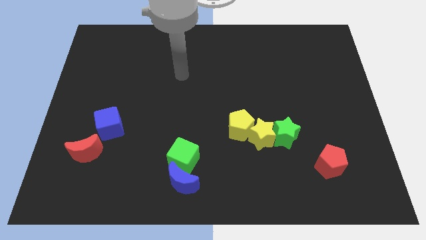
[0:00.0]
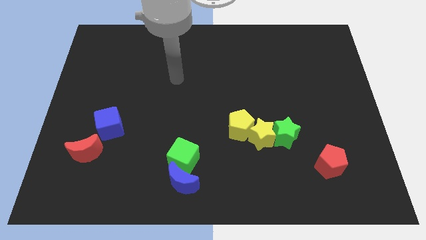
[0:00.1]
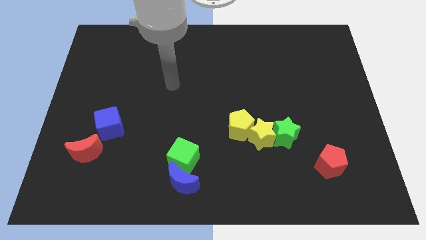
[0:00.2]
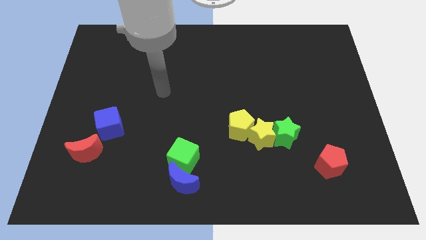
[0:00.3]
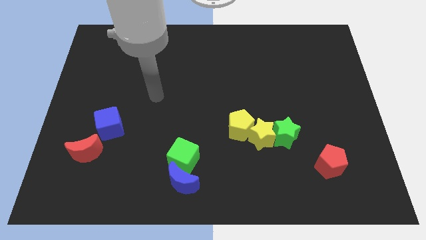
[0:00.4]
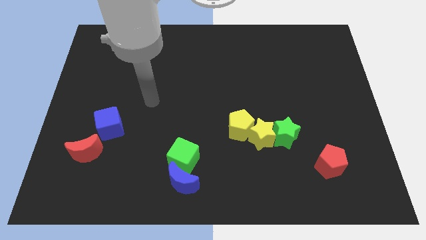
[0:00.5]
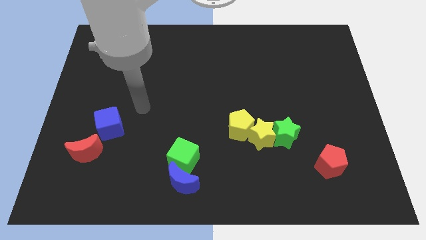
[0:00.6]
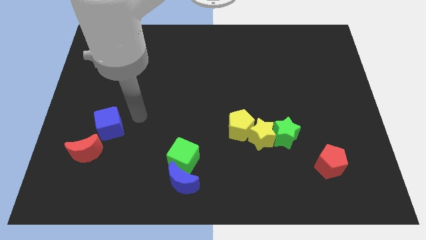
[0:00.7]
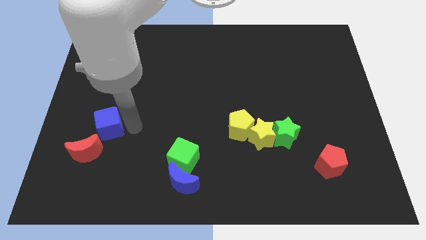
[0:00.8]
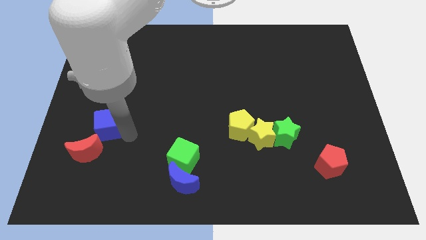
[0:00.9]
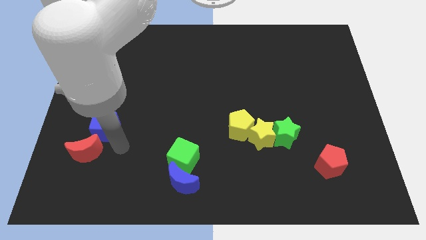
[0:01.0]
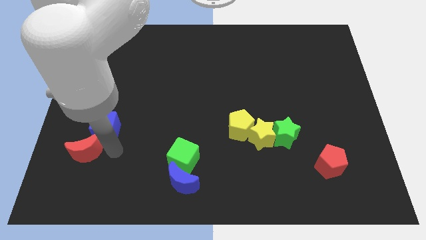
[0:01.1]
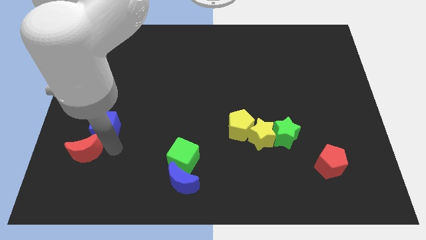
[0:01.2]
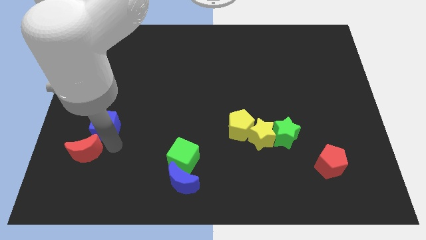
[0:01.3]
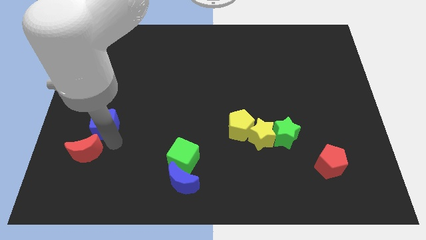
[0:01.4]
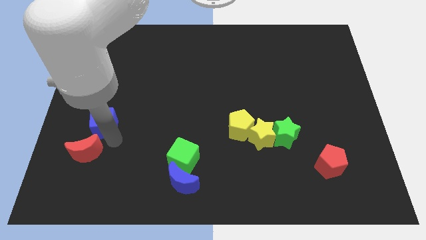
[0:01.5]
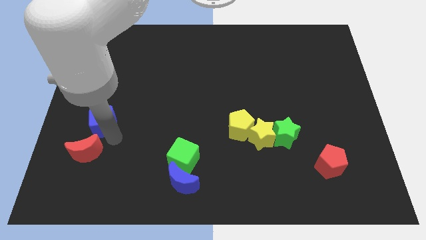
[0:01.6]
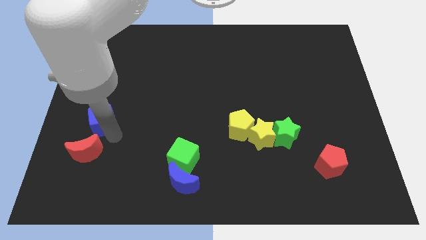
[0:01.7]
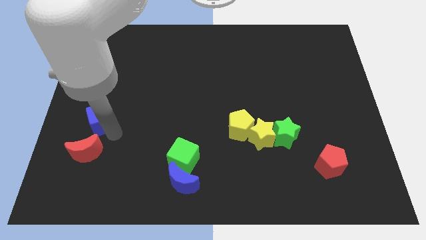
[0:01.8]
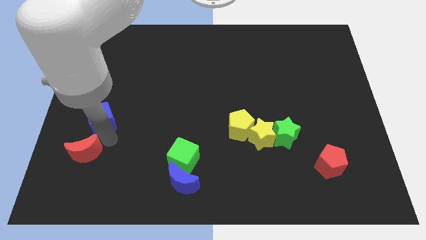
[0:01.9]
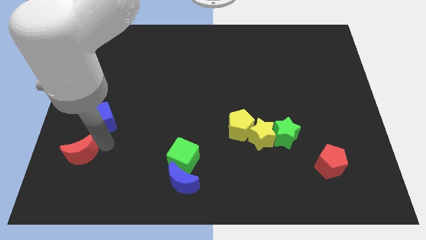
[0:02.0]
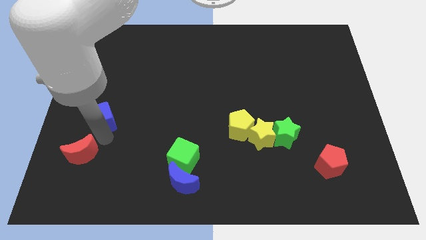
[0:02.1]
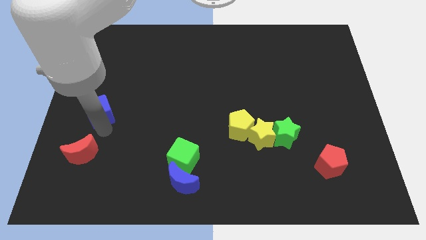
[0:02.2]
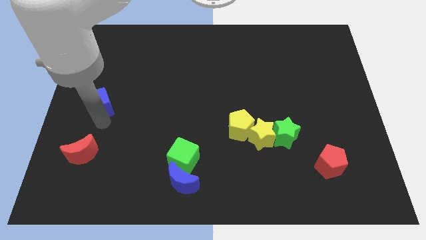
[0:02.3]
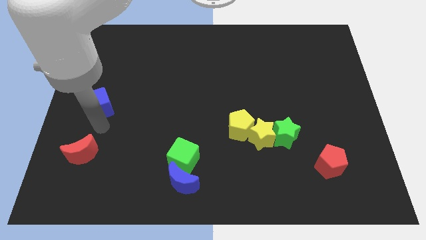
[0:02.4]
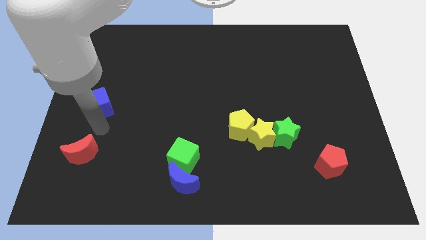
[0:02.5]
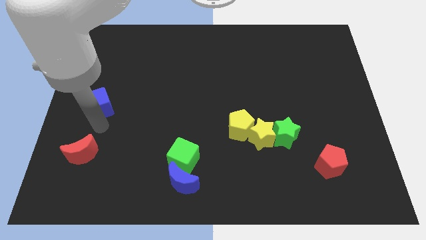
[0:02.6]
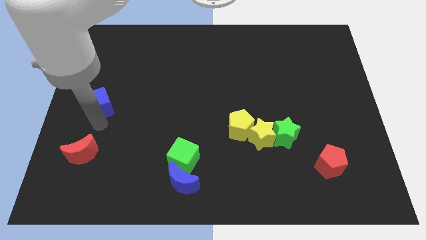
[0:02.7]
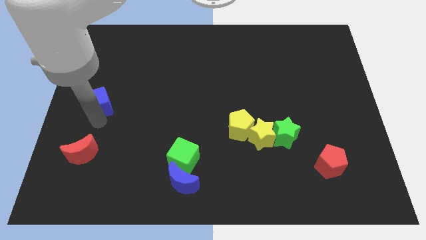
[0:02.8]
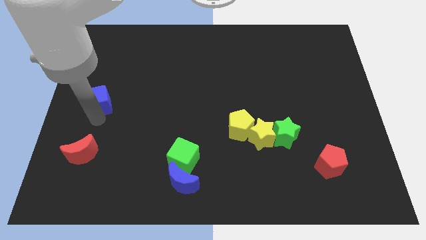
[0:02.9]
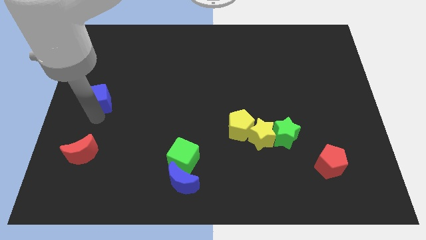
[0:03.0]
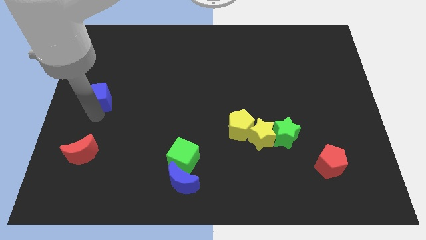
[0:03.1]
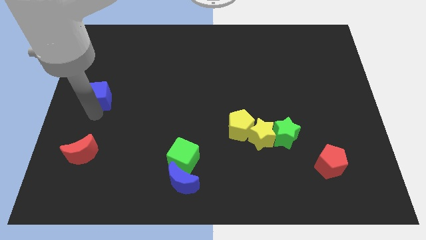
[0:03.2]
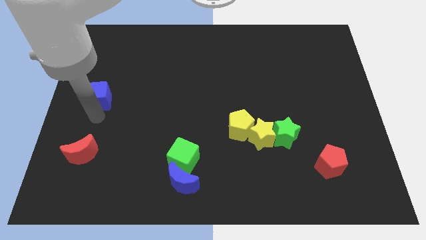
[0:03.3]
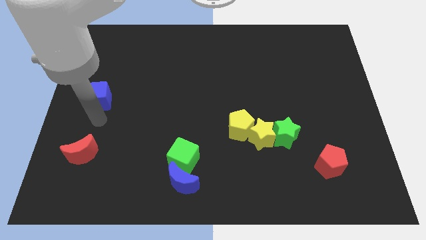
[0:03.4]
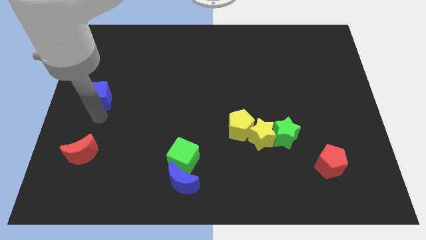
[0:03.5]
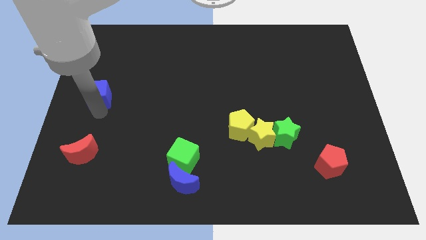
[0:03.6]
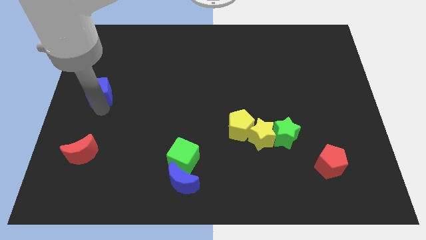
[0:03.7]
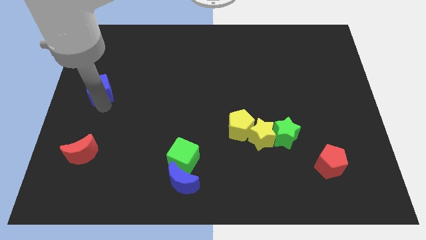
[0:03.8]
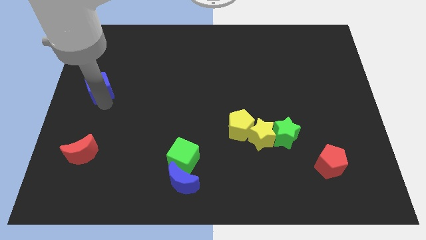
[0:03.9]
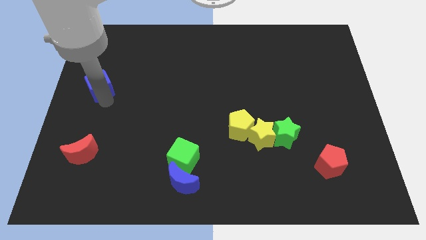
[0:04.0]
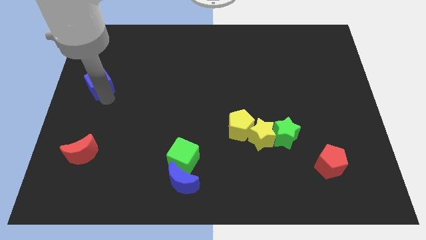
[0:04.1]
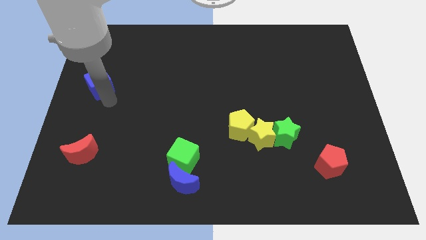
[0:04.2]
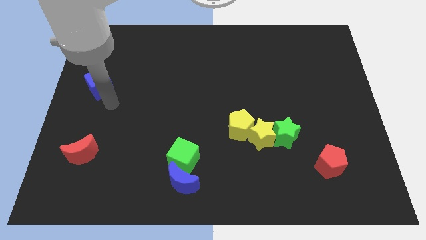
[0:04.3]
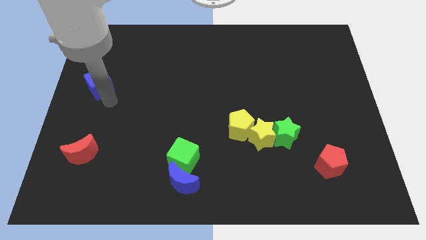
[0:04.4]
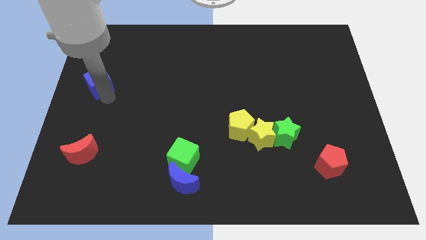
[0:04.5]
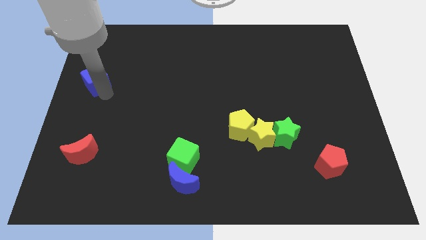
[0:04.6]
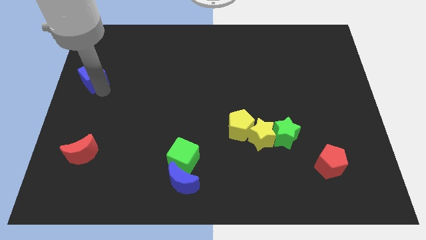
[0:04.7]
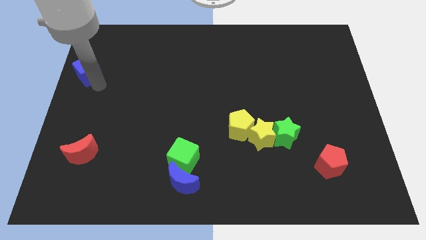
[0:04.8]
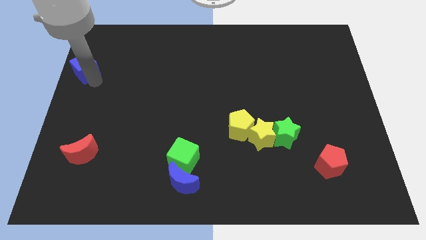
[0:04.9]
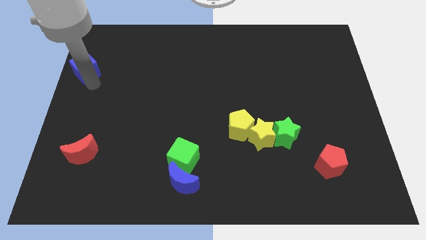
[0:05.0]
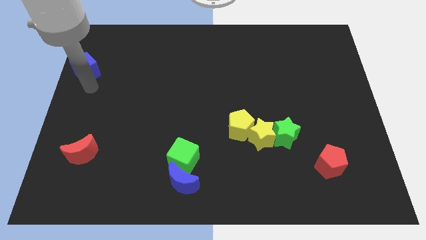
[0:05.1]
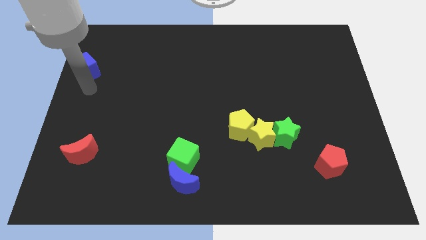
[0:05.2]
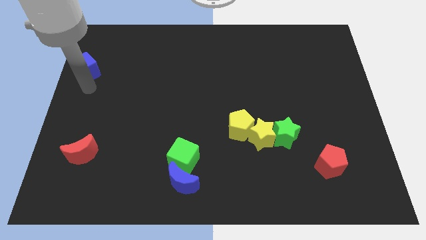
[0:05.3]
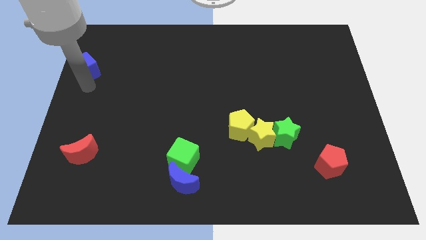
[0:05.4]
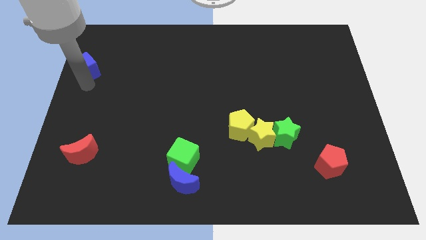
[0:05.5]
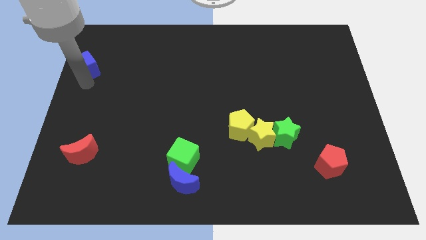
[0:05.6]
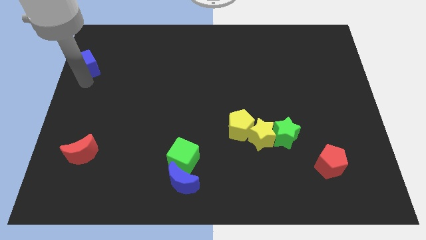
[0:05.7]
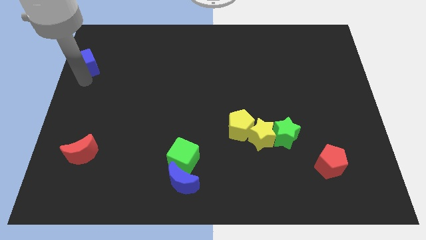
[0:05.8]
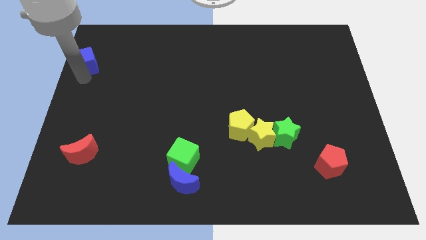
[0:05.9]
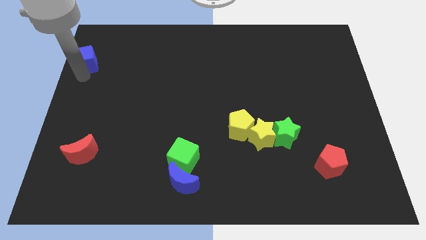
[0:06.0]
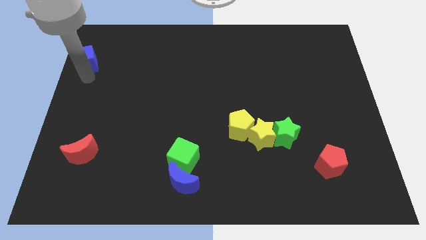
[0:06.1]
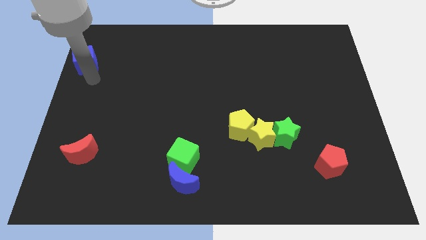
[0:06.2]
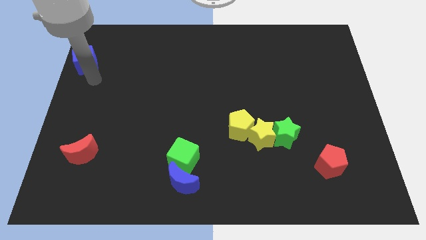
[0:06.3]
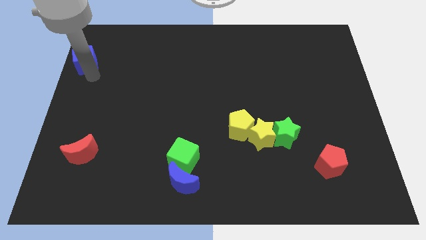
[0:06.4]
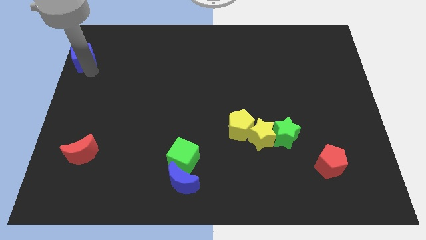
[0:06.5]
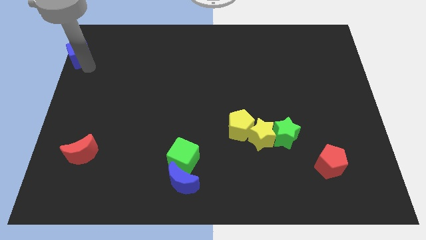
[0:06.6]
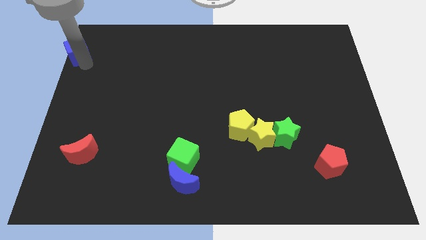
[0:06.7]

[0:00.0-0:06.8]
put the blue cube to the top left
